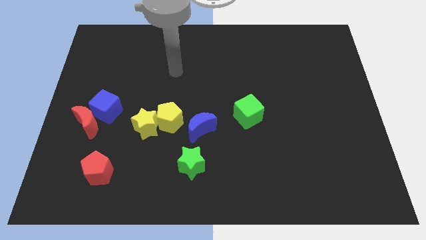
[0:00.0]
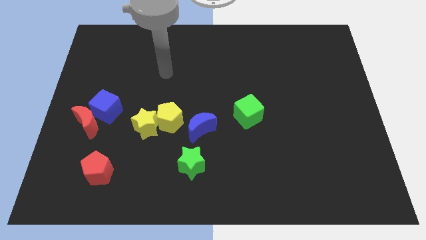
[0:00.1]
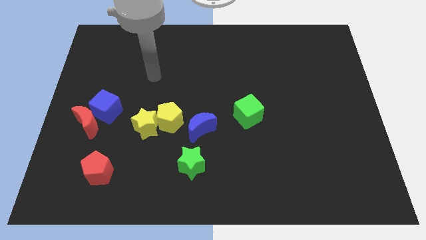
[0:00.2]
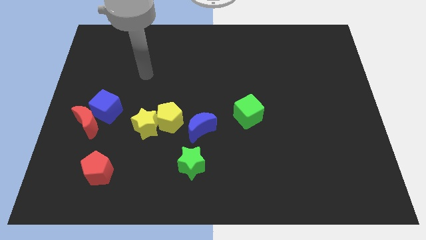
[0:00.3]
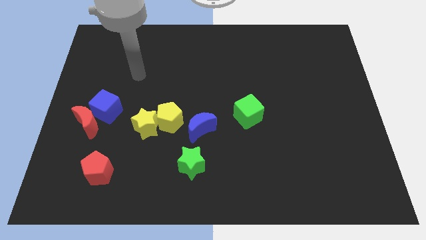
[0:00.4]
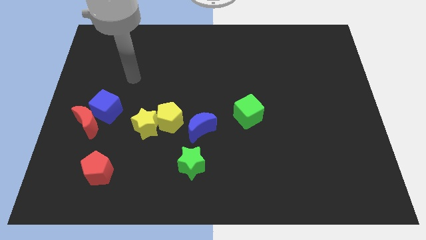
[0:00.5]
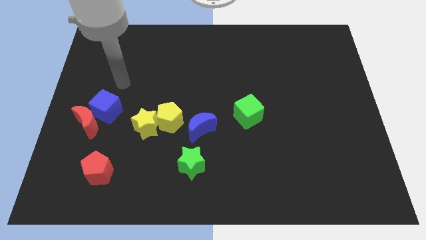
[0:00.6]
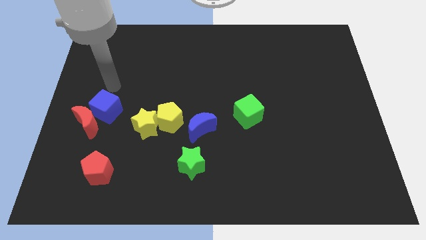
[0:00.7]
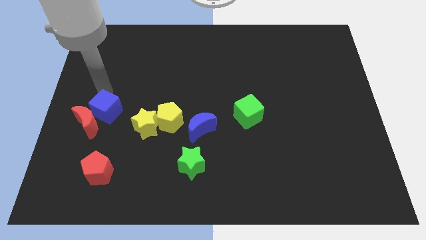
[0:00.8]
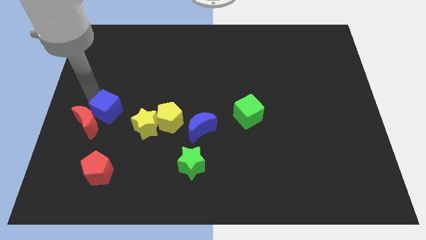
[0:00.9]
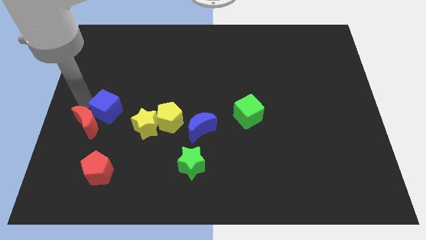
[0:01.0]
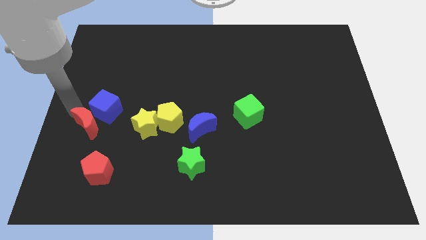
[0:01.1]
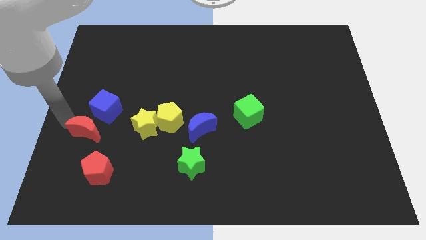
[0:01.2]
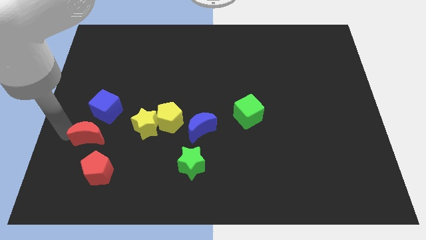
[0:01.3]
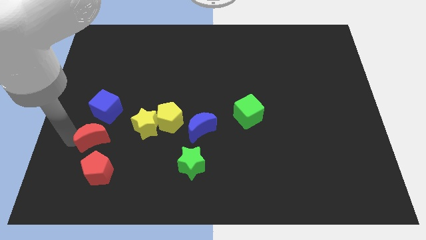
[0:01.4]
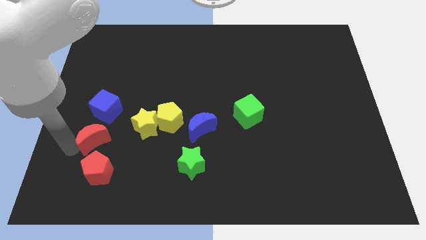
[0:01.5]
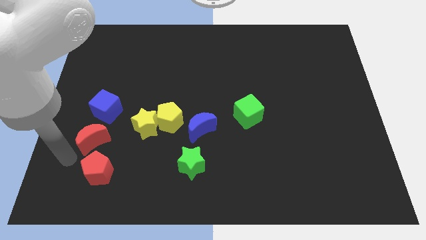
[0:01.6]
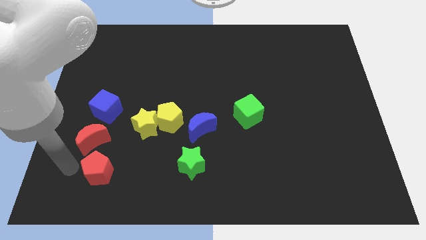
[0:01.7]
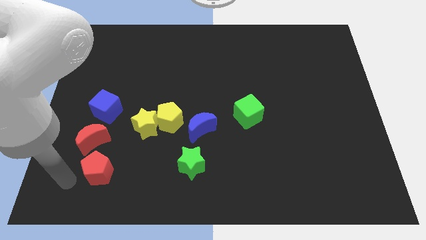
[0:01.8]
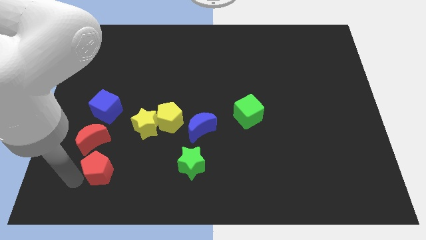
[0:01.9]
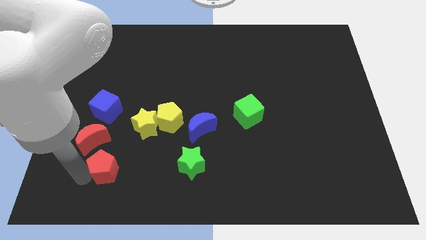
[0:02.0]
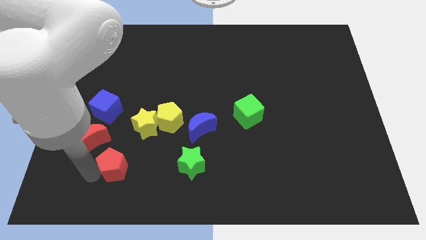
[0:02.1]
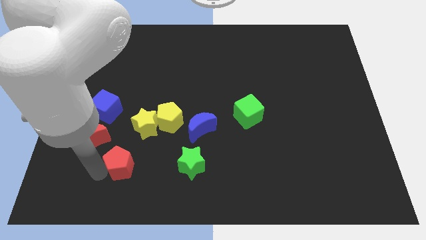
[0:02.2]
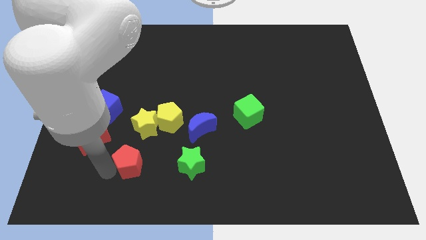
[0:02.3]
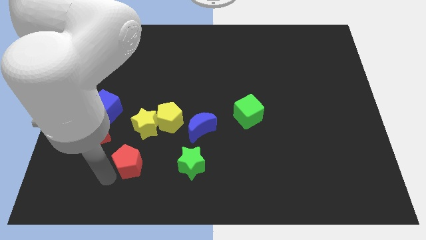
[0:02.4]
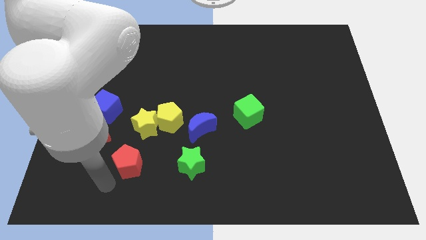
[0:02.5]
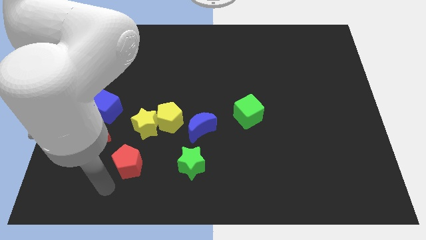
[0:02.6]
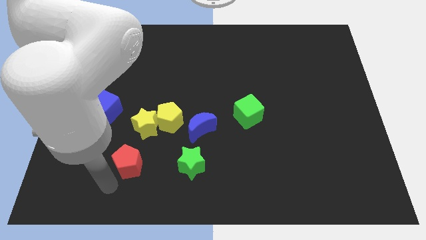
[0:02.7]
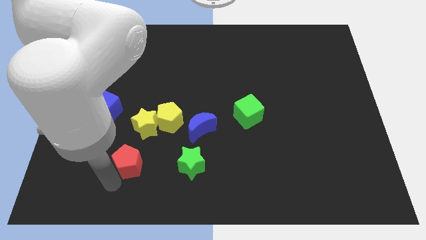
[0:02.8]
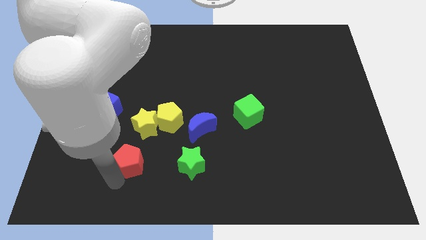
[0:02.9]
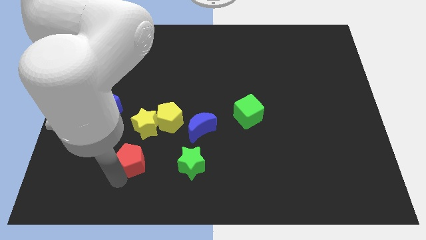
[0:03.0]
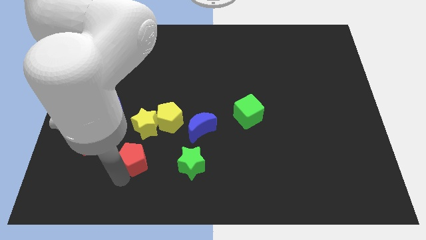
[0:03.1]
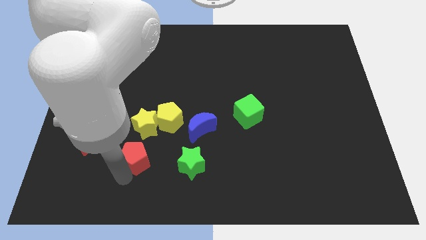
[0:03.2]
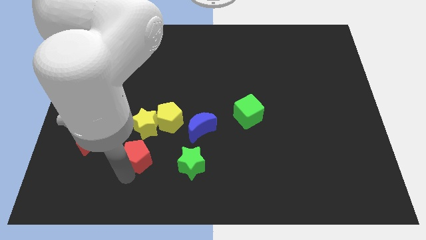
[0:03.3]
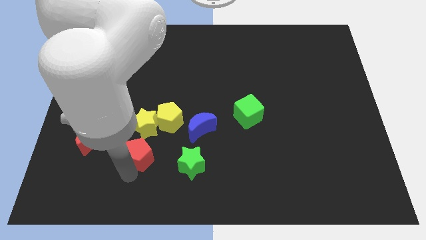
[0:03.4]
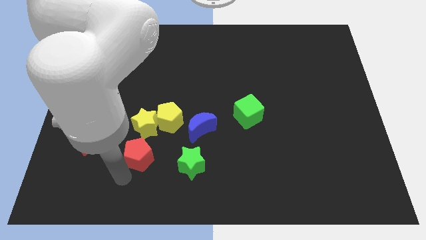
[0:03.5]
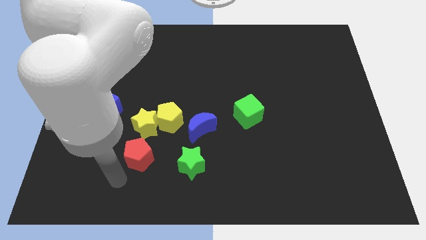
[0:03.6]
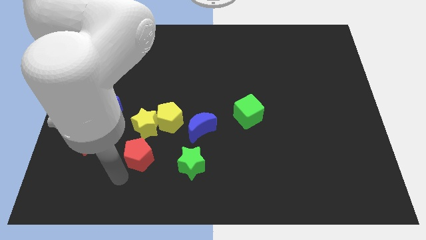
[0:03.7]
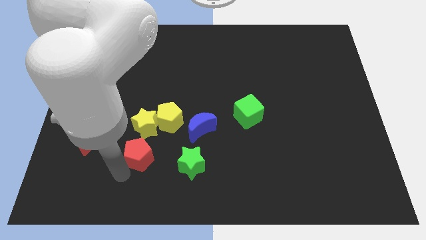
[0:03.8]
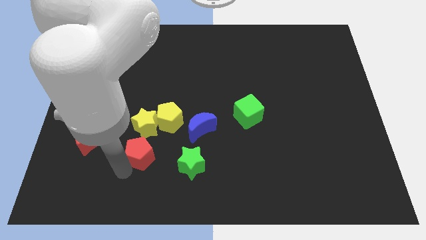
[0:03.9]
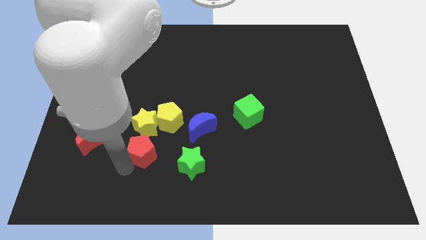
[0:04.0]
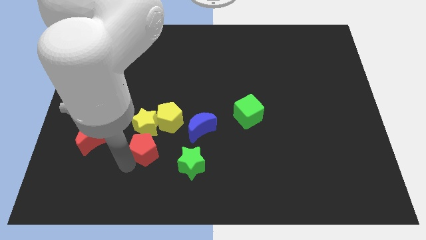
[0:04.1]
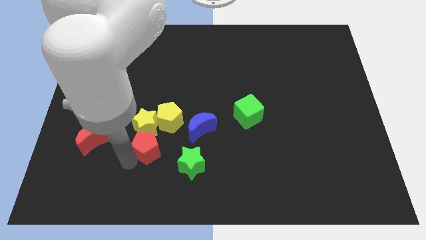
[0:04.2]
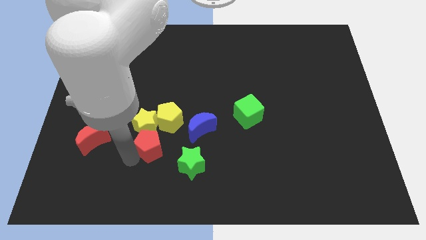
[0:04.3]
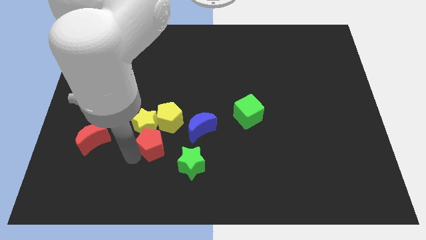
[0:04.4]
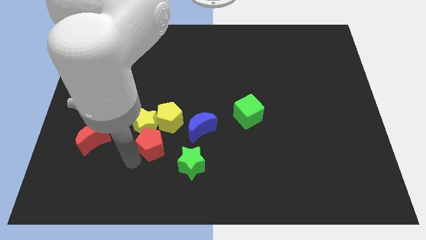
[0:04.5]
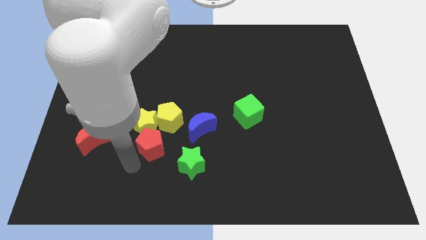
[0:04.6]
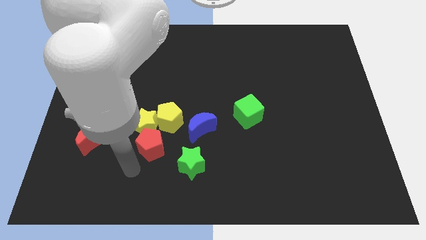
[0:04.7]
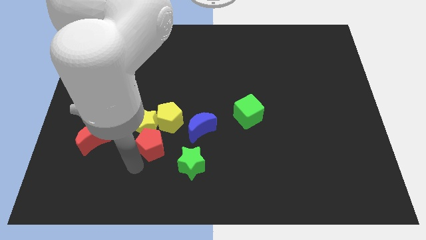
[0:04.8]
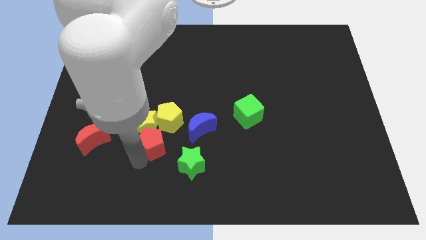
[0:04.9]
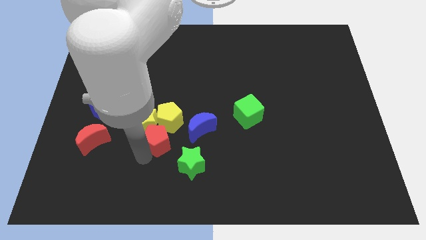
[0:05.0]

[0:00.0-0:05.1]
slide the red pentagon towards the yellow pentagon

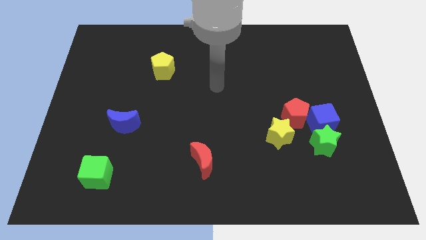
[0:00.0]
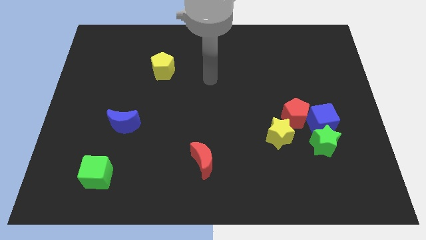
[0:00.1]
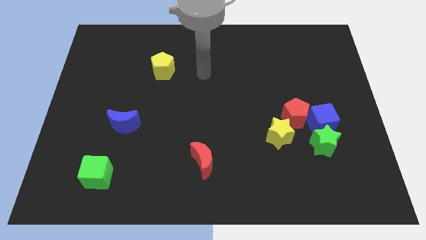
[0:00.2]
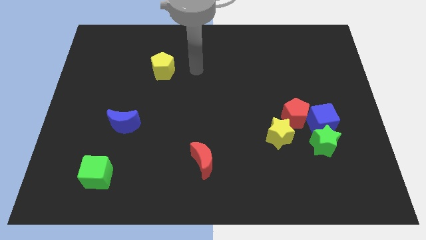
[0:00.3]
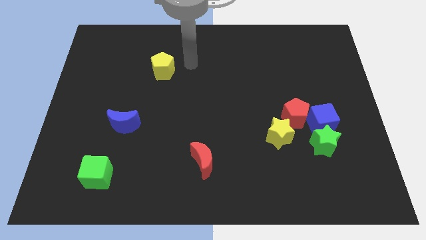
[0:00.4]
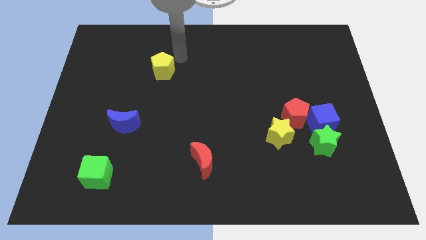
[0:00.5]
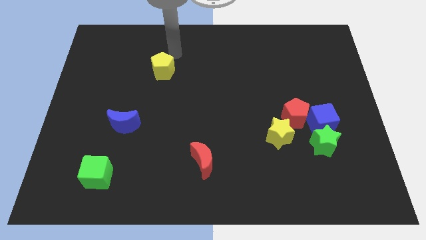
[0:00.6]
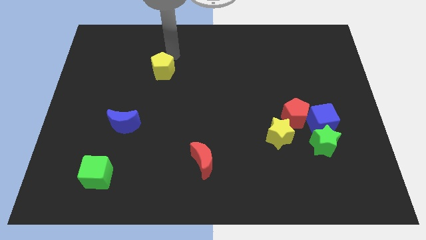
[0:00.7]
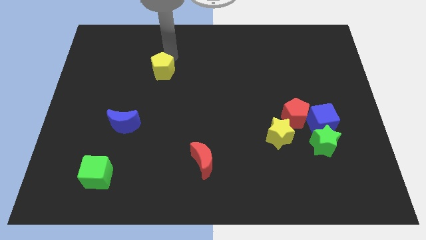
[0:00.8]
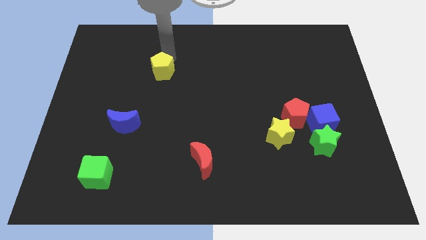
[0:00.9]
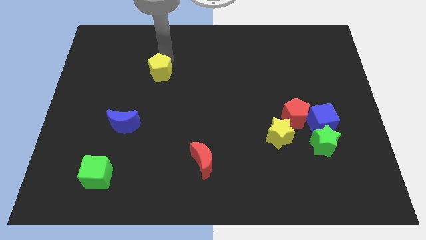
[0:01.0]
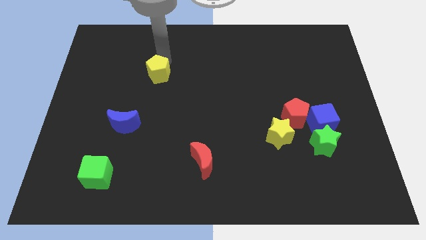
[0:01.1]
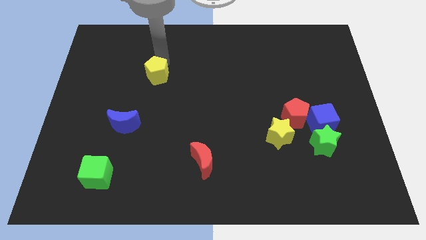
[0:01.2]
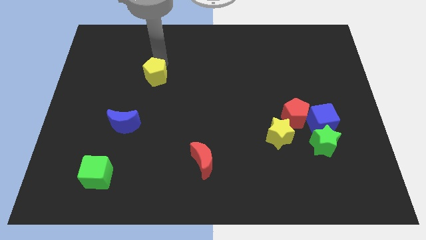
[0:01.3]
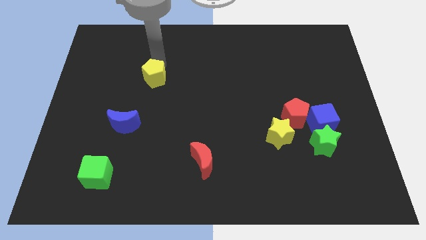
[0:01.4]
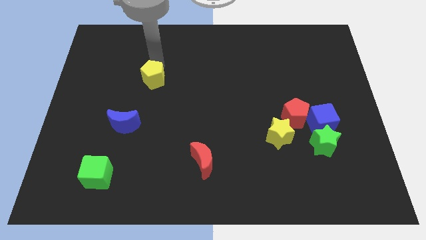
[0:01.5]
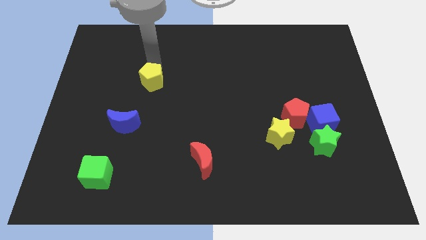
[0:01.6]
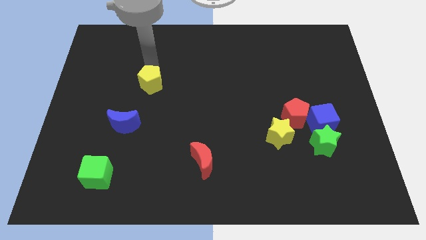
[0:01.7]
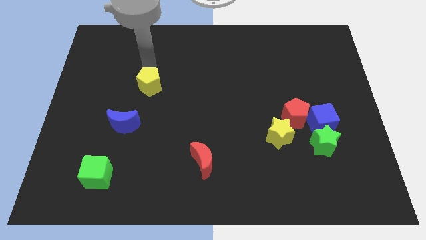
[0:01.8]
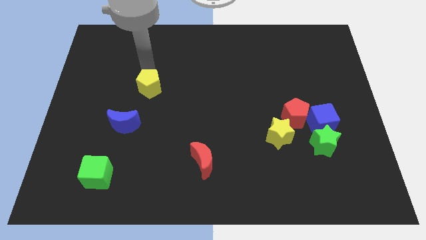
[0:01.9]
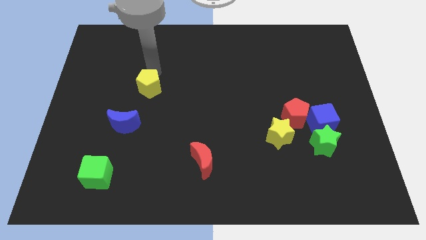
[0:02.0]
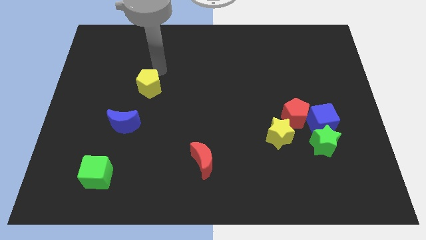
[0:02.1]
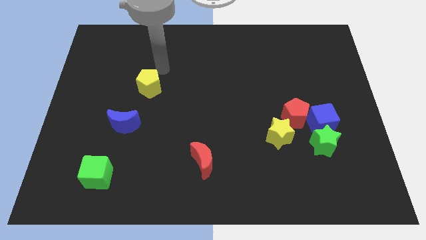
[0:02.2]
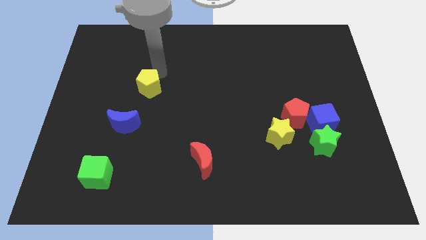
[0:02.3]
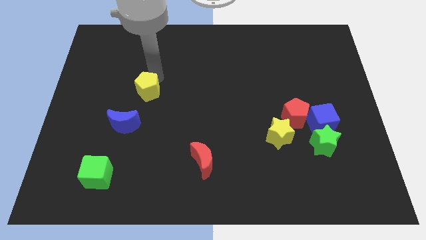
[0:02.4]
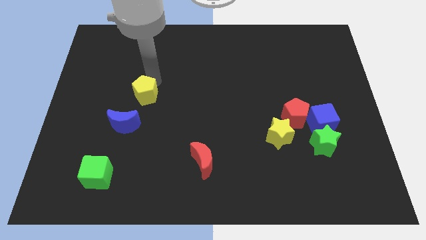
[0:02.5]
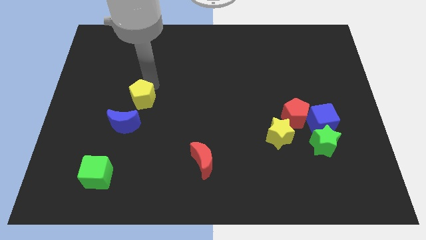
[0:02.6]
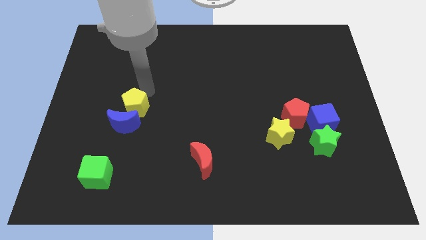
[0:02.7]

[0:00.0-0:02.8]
slide the yellow pentagon close to the blue moon
